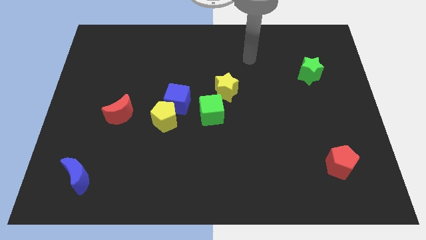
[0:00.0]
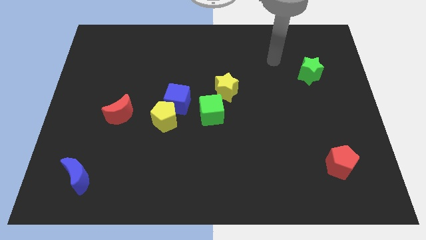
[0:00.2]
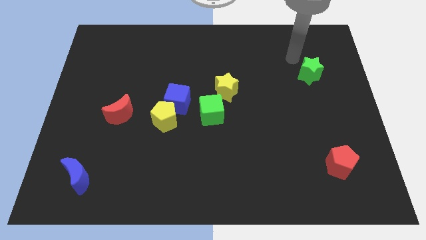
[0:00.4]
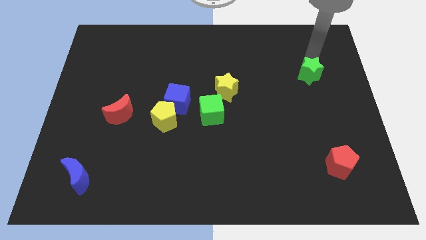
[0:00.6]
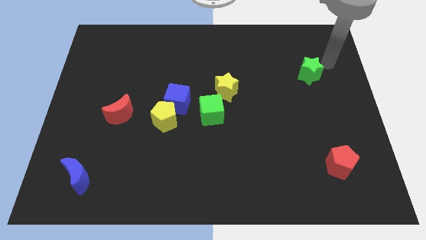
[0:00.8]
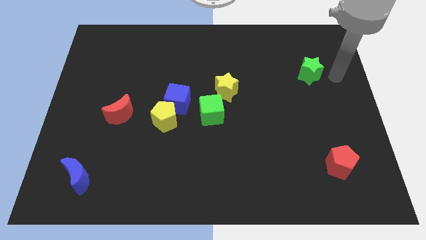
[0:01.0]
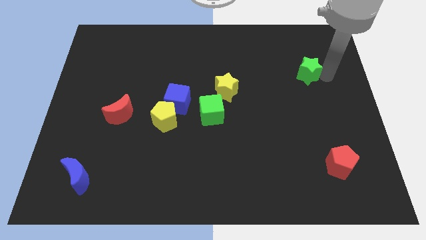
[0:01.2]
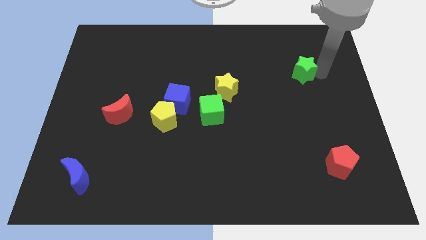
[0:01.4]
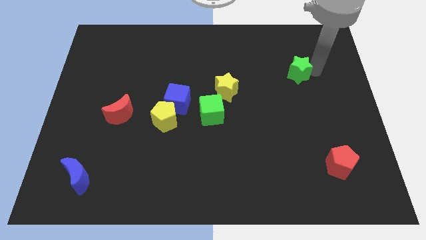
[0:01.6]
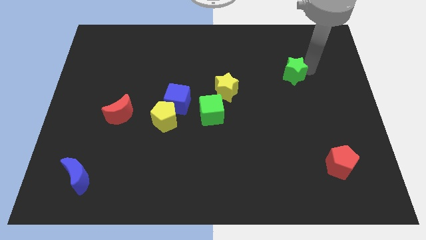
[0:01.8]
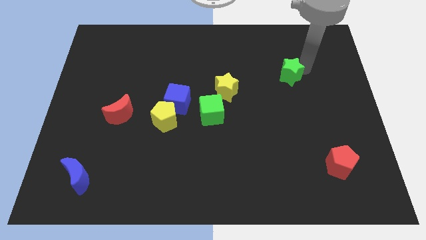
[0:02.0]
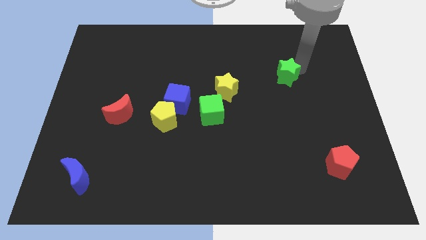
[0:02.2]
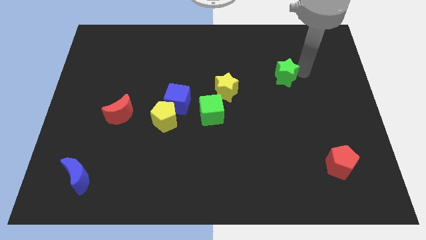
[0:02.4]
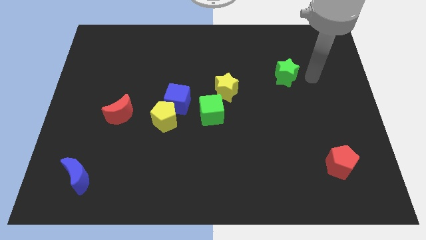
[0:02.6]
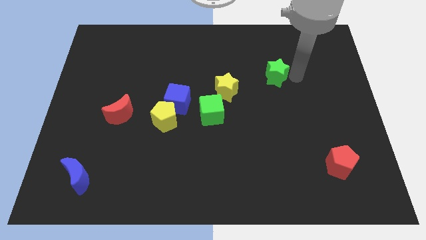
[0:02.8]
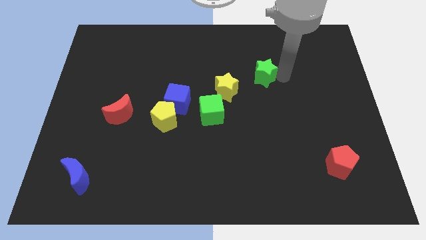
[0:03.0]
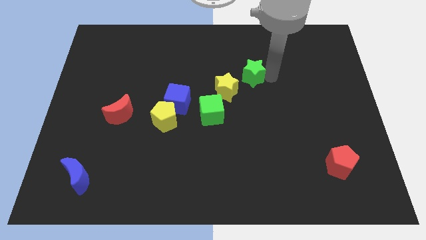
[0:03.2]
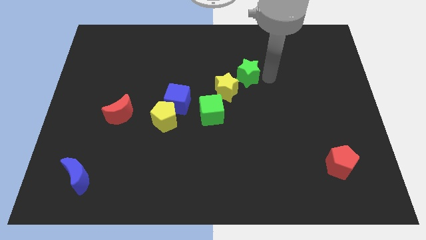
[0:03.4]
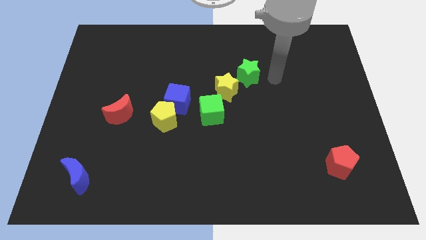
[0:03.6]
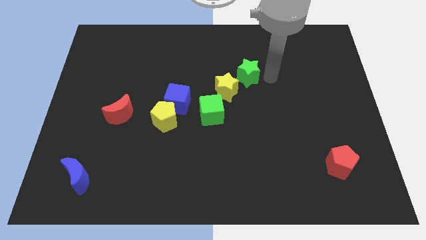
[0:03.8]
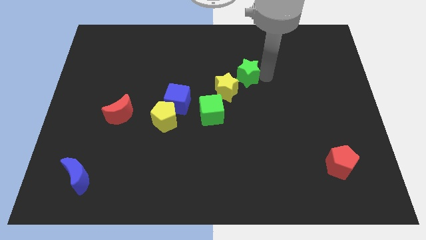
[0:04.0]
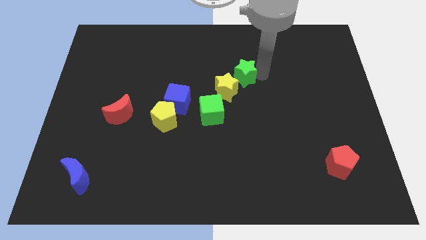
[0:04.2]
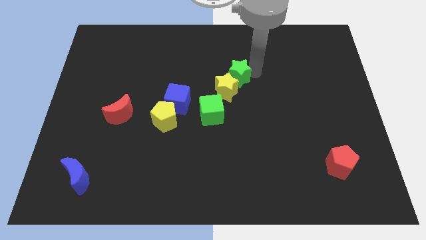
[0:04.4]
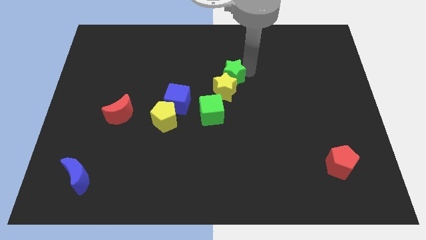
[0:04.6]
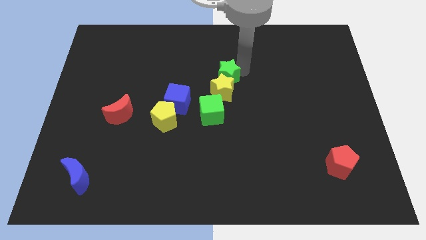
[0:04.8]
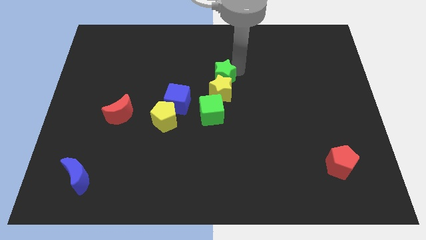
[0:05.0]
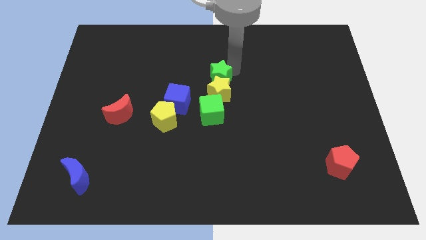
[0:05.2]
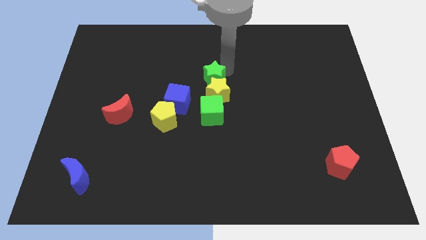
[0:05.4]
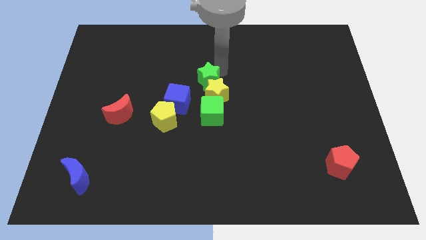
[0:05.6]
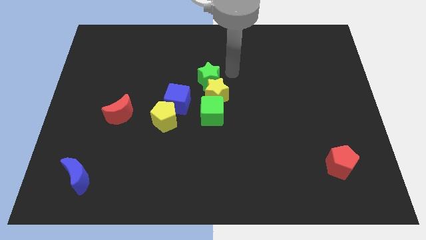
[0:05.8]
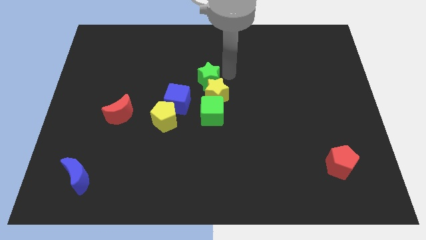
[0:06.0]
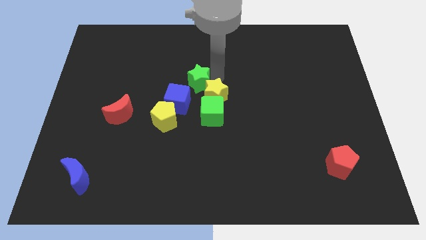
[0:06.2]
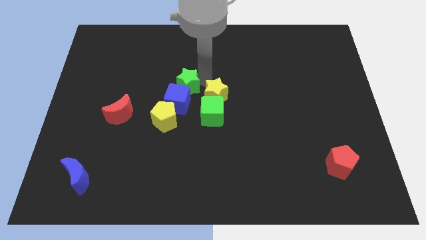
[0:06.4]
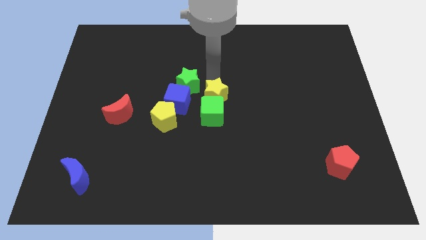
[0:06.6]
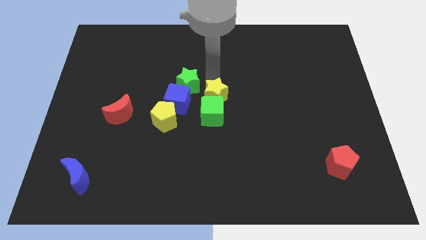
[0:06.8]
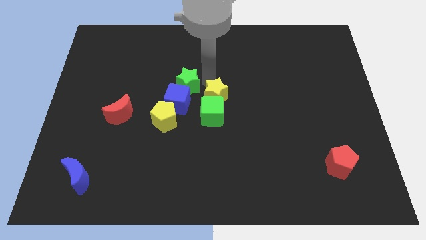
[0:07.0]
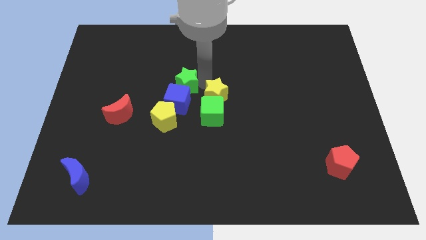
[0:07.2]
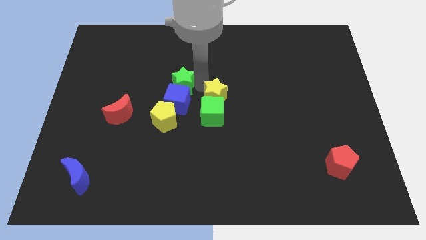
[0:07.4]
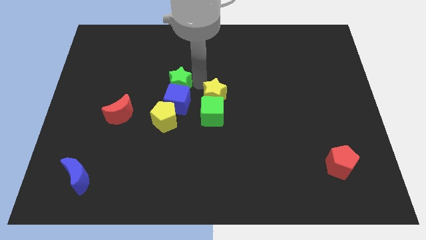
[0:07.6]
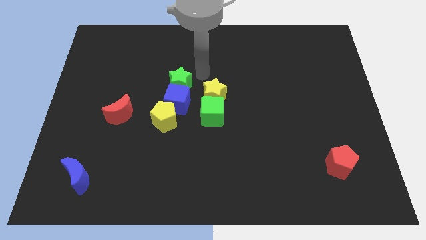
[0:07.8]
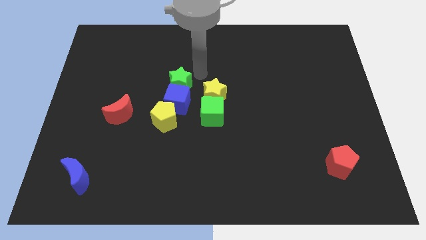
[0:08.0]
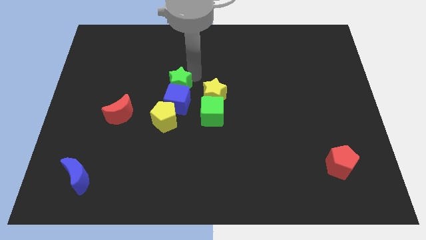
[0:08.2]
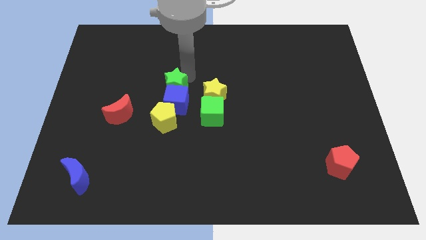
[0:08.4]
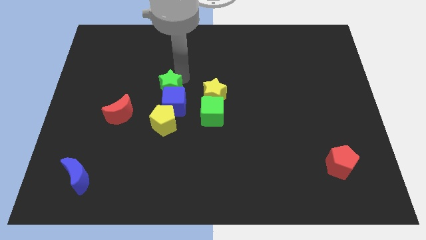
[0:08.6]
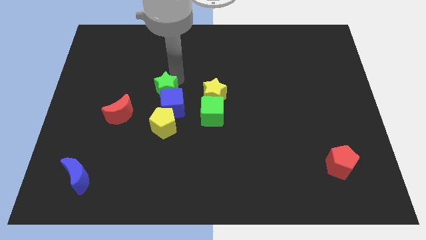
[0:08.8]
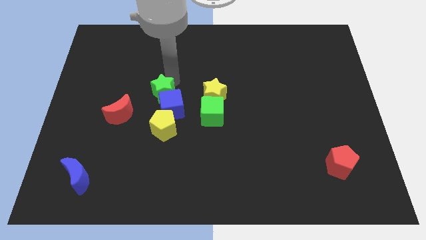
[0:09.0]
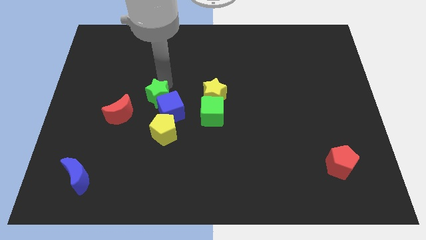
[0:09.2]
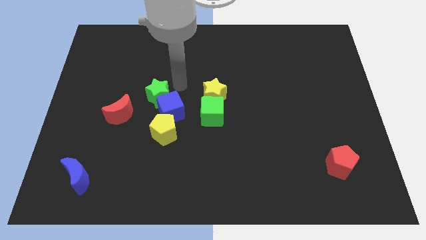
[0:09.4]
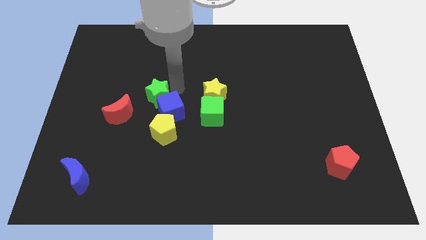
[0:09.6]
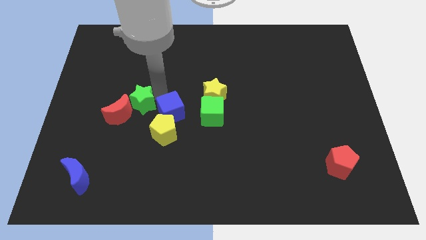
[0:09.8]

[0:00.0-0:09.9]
slide the green star to the red moon

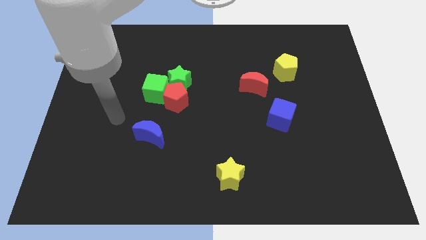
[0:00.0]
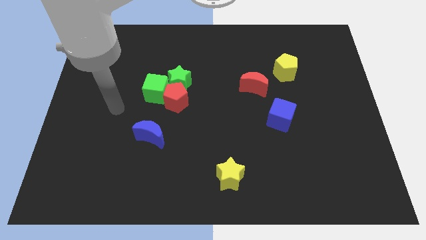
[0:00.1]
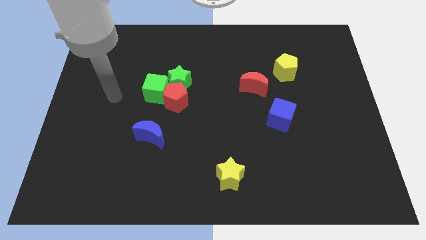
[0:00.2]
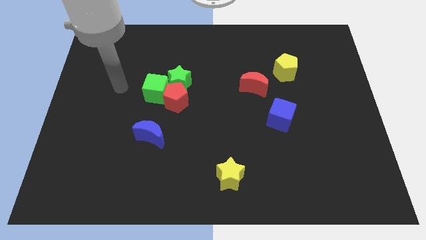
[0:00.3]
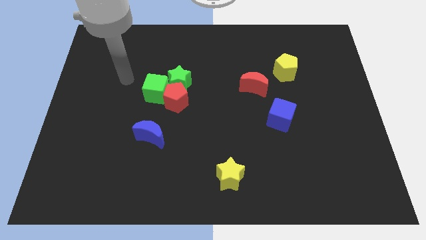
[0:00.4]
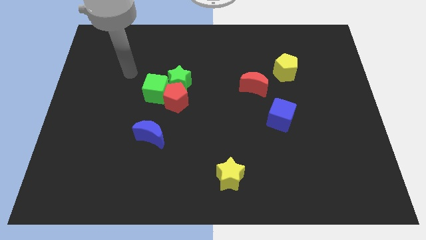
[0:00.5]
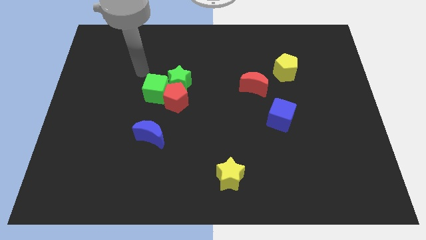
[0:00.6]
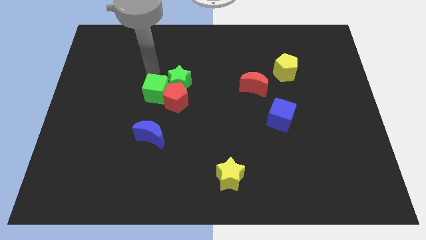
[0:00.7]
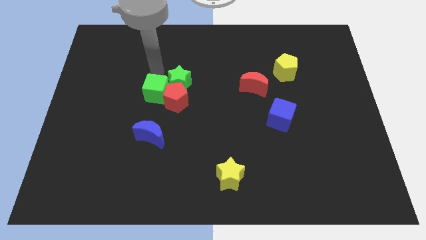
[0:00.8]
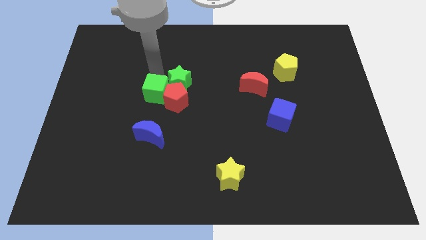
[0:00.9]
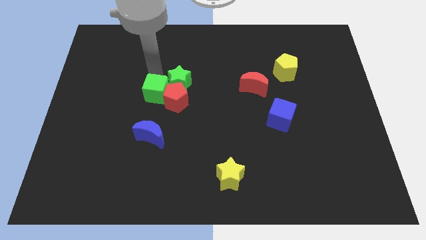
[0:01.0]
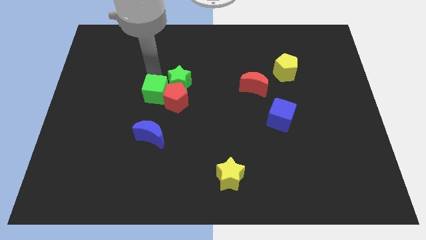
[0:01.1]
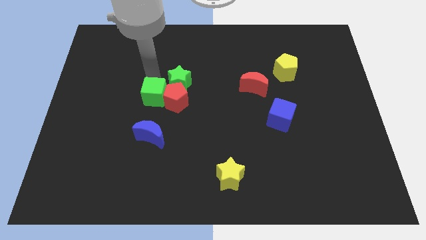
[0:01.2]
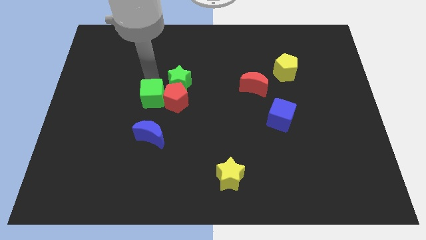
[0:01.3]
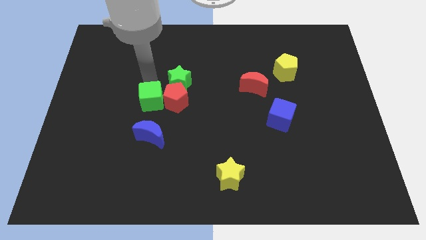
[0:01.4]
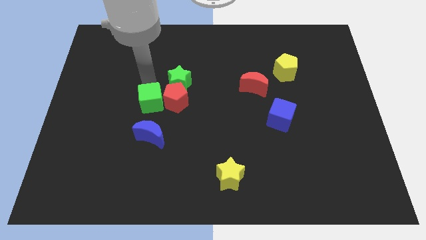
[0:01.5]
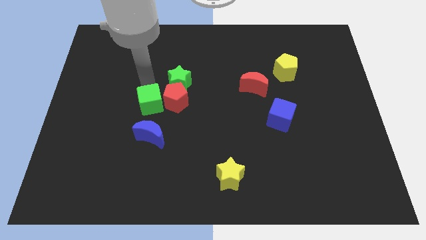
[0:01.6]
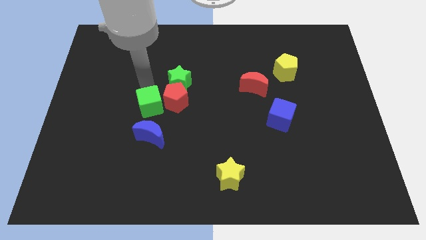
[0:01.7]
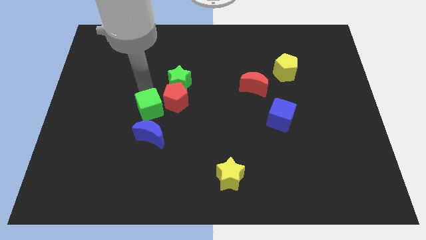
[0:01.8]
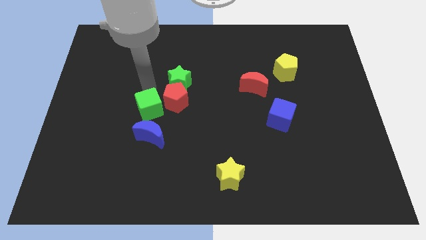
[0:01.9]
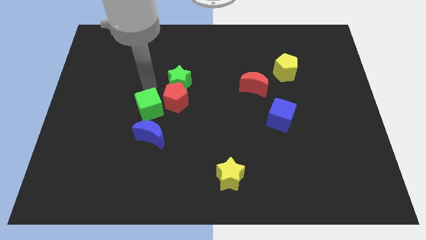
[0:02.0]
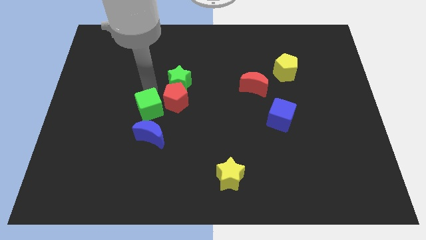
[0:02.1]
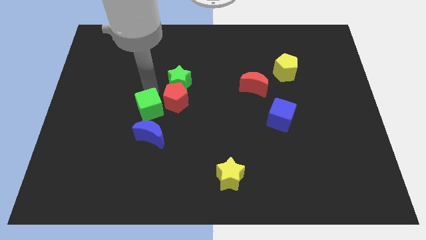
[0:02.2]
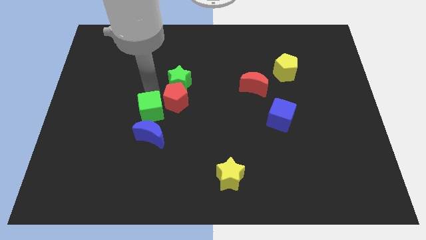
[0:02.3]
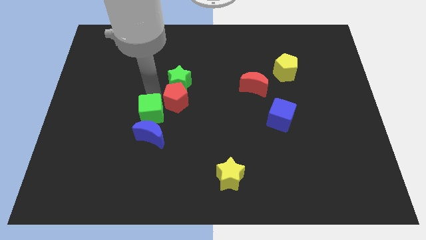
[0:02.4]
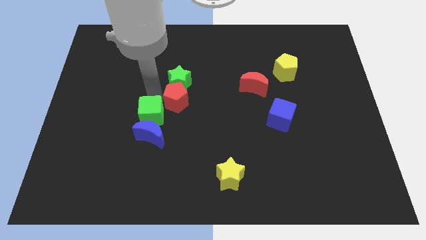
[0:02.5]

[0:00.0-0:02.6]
move the green cube to the blue moon

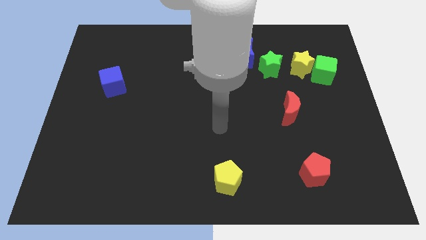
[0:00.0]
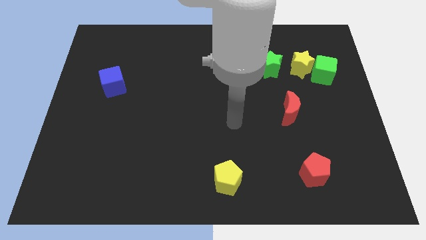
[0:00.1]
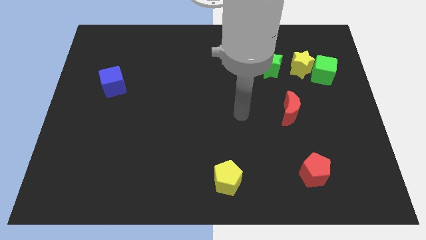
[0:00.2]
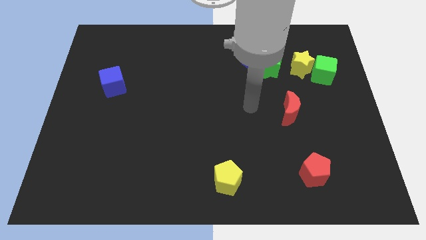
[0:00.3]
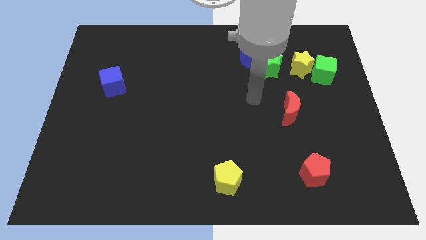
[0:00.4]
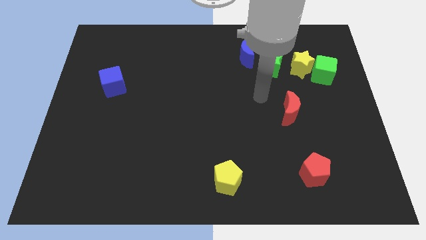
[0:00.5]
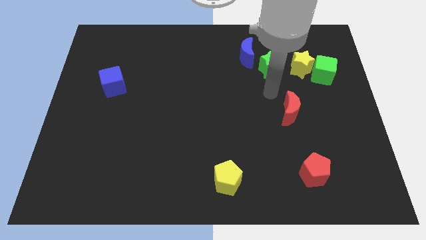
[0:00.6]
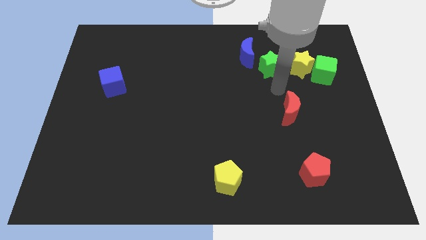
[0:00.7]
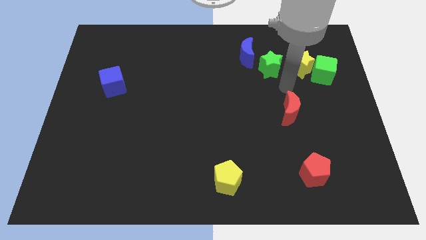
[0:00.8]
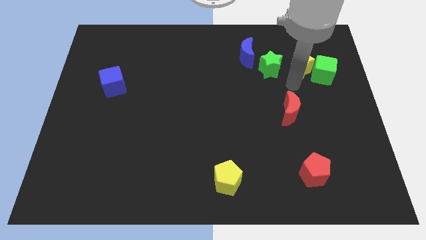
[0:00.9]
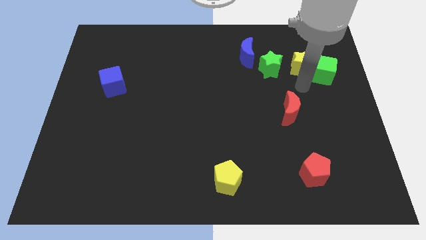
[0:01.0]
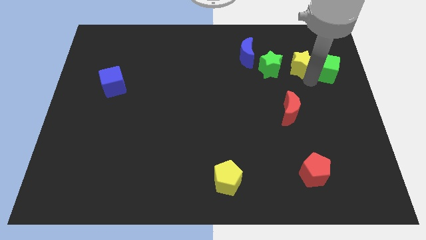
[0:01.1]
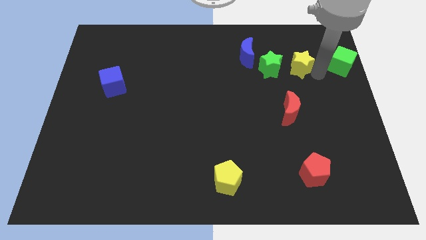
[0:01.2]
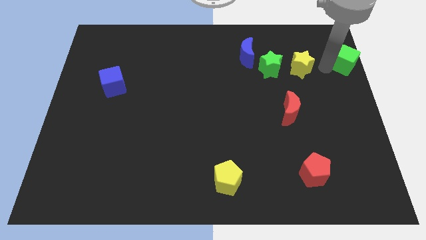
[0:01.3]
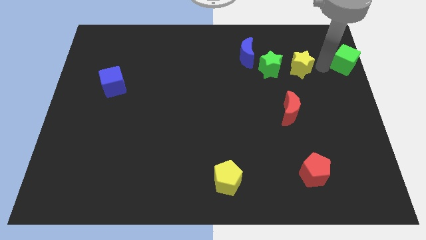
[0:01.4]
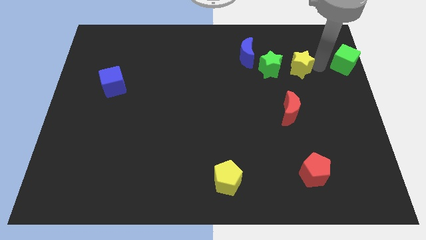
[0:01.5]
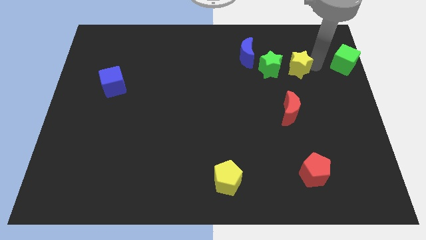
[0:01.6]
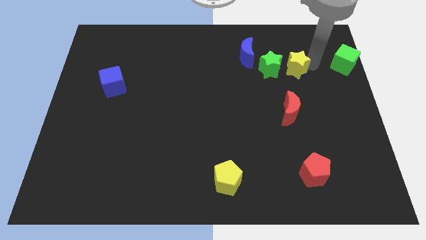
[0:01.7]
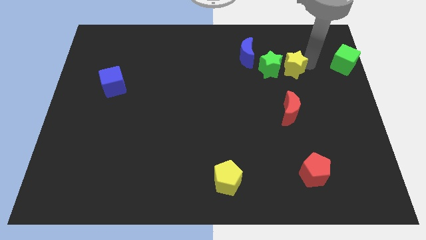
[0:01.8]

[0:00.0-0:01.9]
move the yellow star close to the green star
